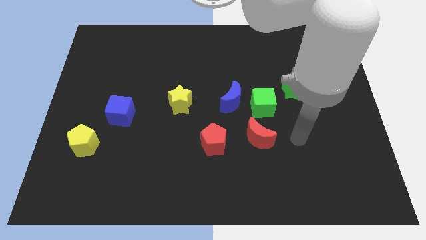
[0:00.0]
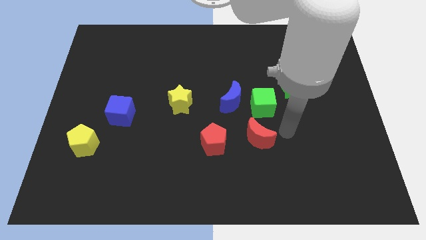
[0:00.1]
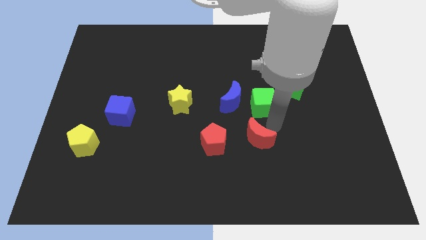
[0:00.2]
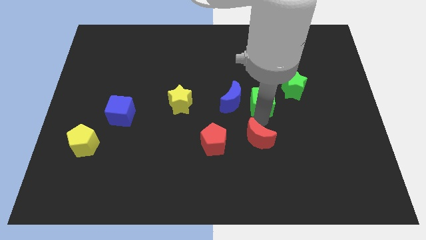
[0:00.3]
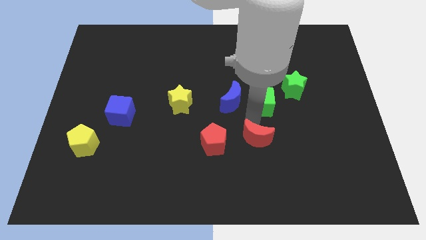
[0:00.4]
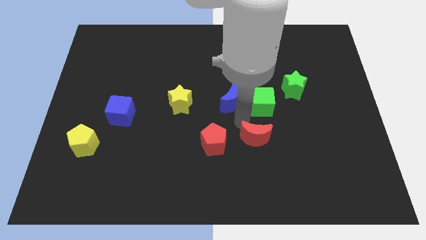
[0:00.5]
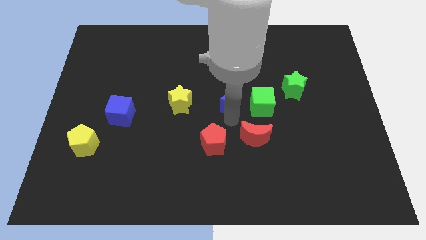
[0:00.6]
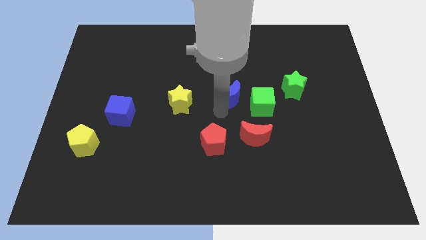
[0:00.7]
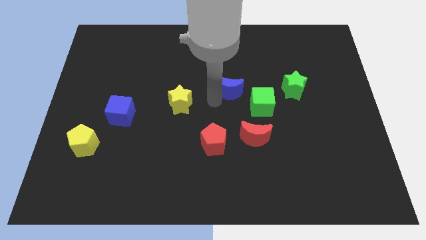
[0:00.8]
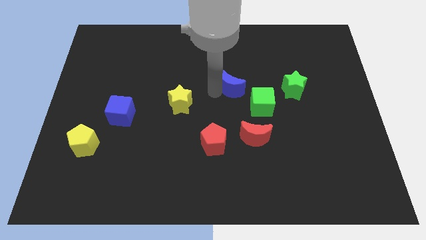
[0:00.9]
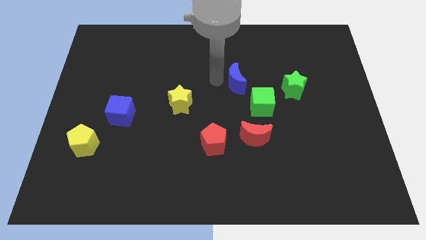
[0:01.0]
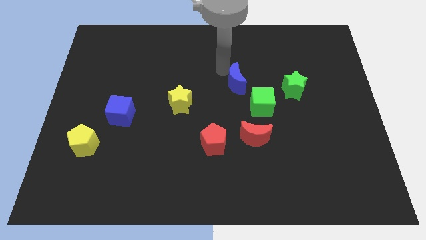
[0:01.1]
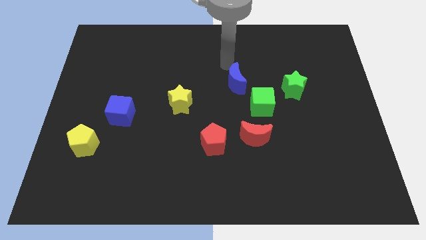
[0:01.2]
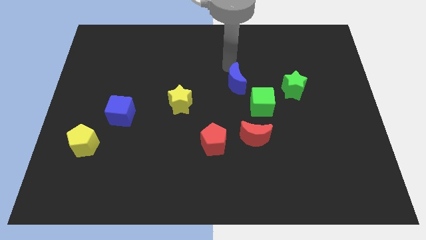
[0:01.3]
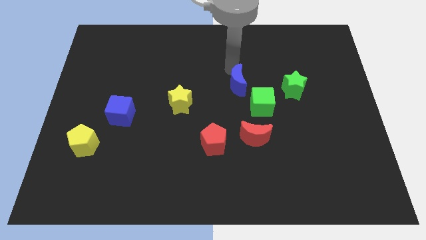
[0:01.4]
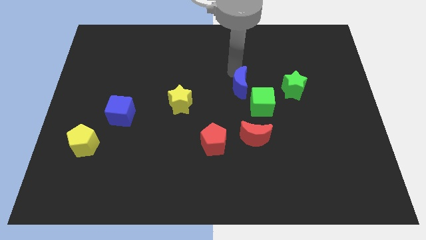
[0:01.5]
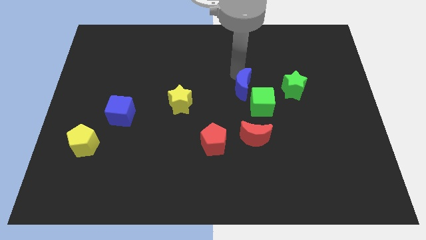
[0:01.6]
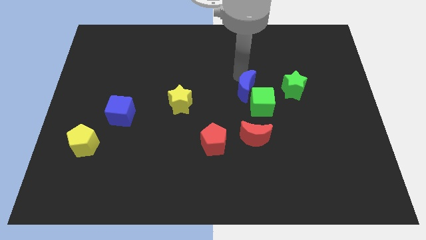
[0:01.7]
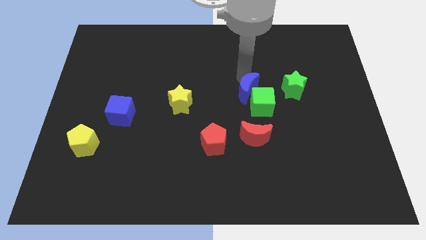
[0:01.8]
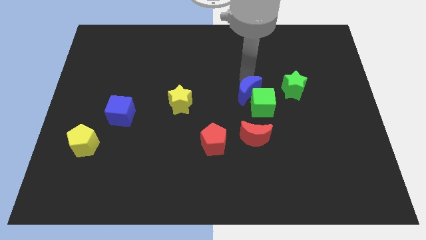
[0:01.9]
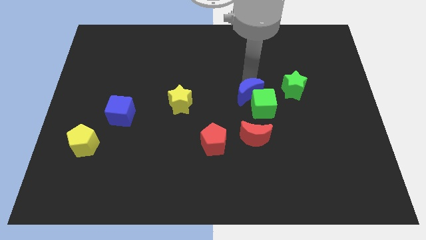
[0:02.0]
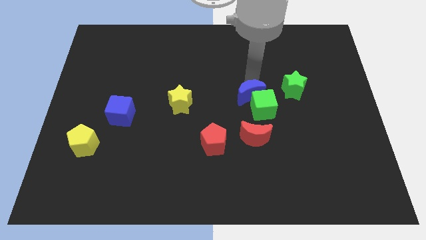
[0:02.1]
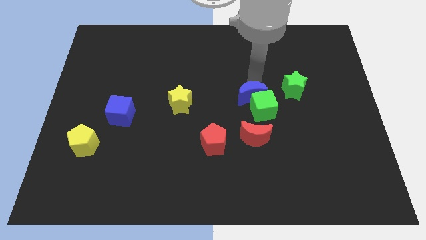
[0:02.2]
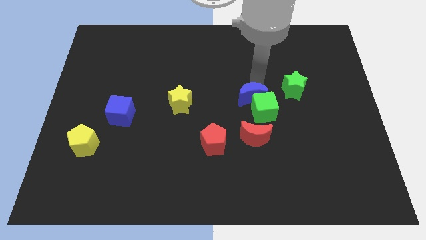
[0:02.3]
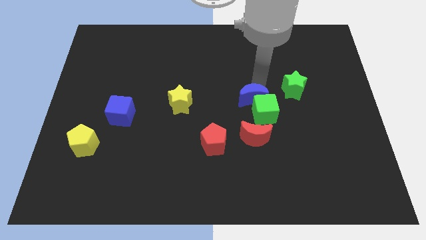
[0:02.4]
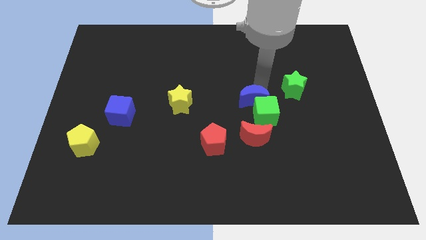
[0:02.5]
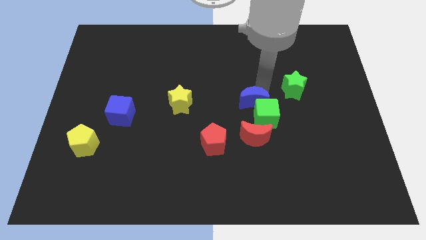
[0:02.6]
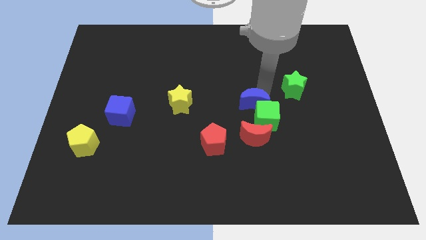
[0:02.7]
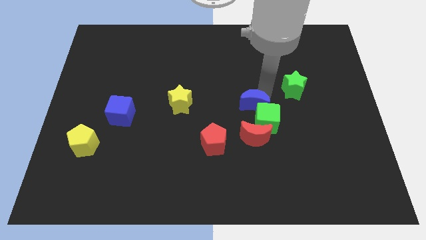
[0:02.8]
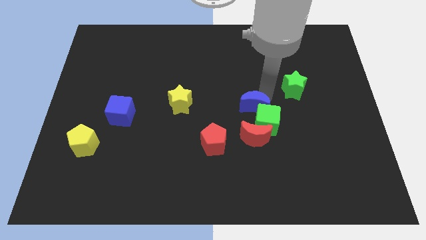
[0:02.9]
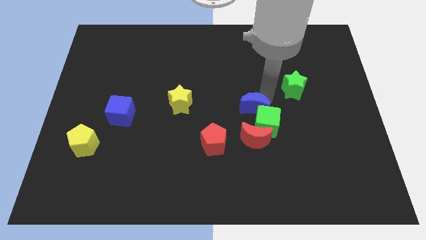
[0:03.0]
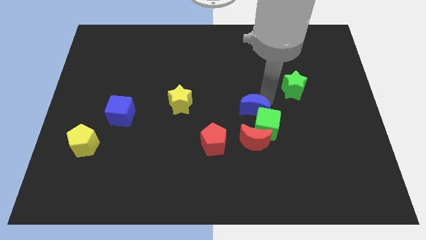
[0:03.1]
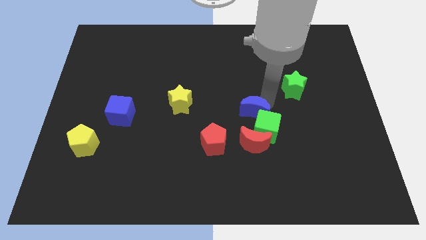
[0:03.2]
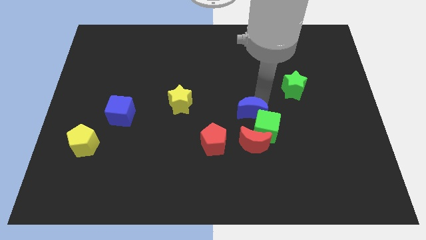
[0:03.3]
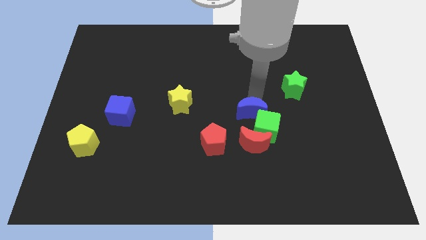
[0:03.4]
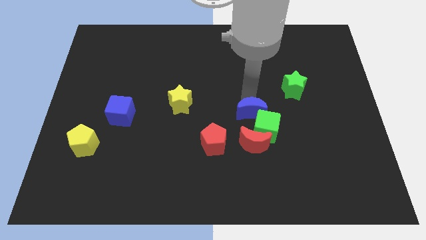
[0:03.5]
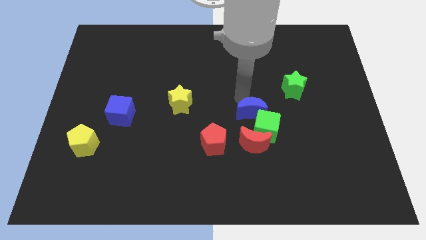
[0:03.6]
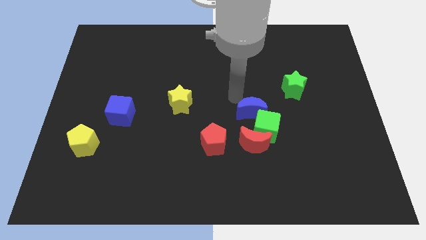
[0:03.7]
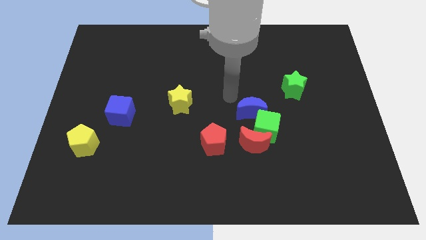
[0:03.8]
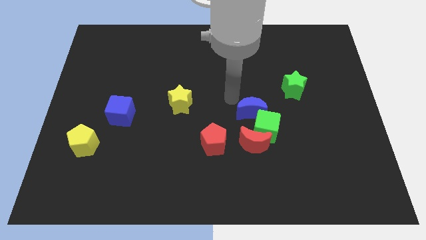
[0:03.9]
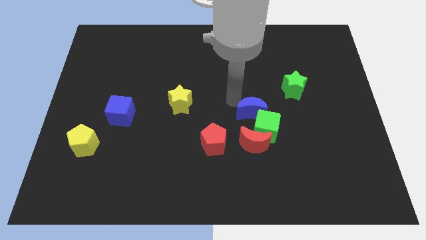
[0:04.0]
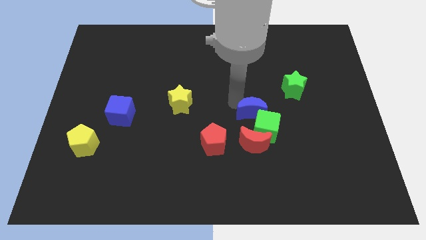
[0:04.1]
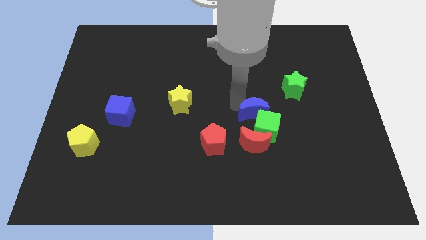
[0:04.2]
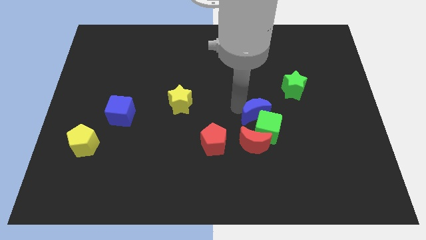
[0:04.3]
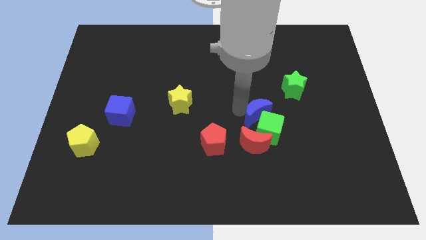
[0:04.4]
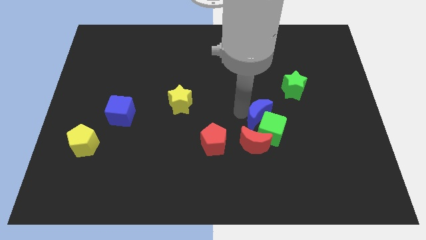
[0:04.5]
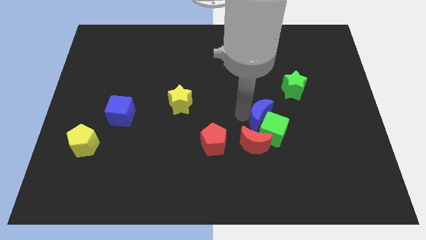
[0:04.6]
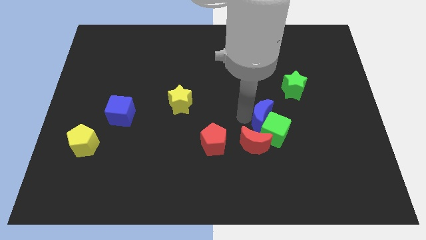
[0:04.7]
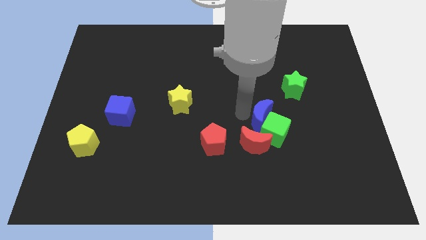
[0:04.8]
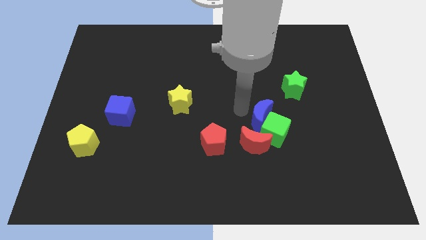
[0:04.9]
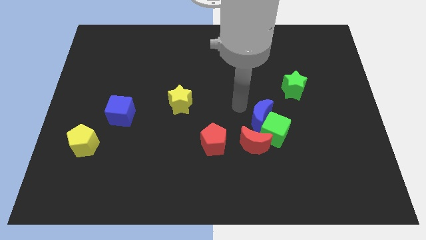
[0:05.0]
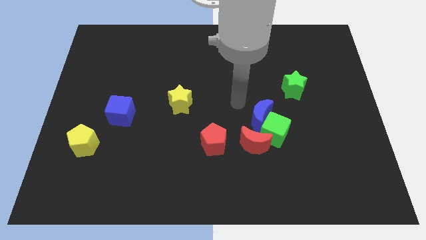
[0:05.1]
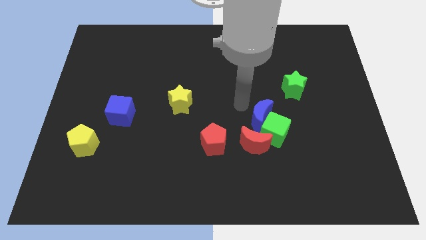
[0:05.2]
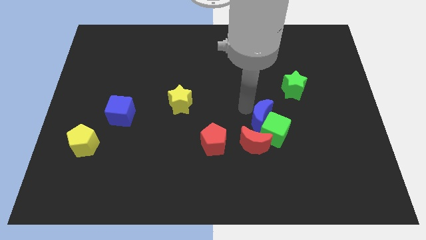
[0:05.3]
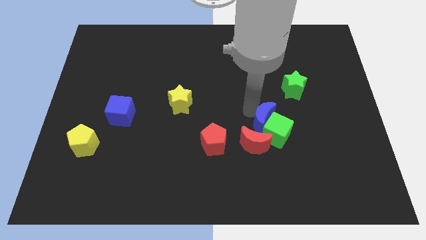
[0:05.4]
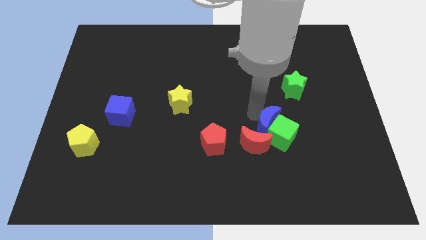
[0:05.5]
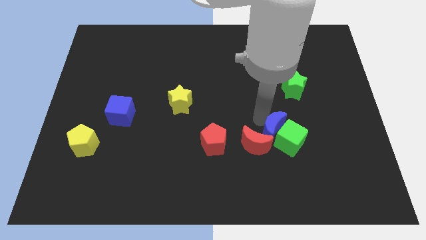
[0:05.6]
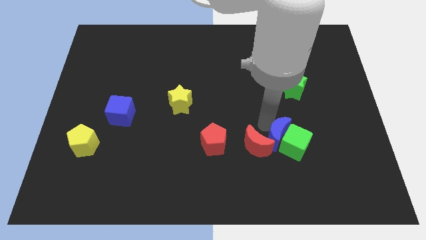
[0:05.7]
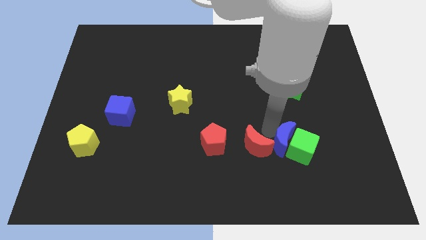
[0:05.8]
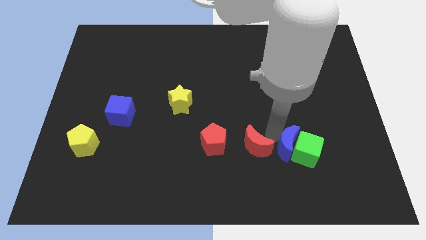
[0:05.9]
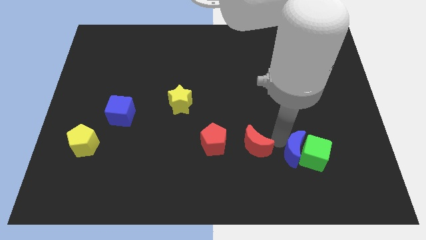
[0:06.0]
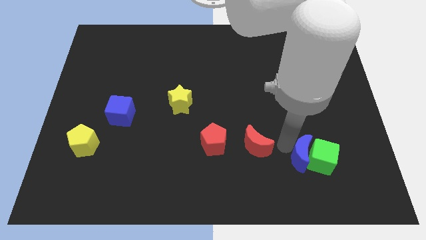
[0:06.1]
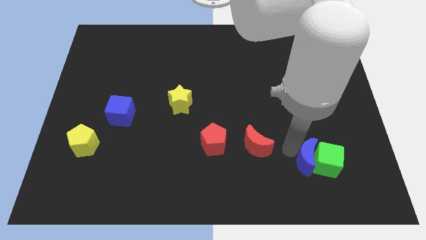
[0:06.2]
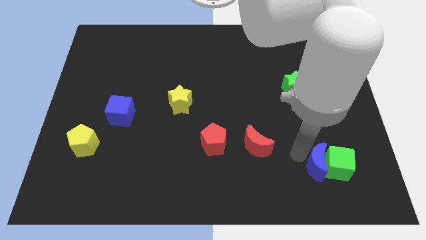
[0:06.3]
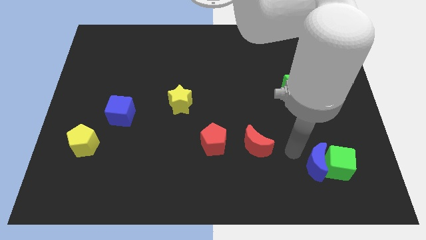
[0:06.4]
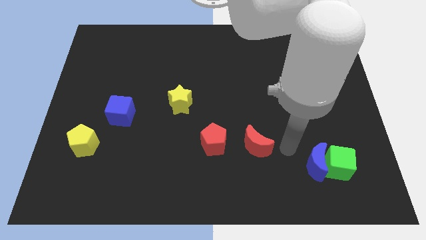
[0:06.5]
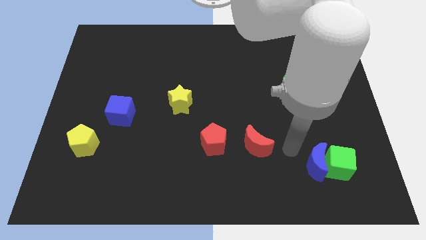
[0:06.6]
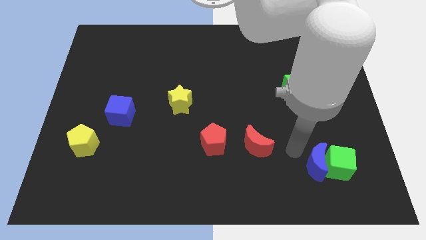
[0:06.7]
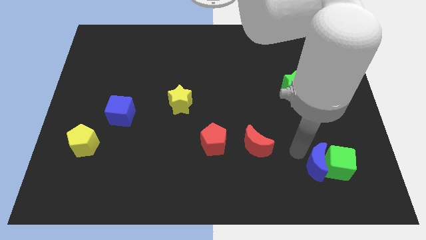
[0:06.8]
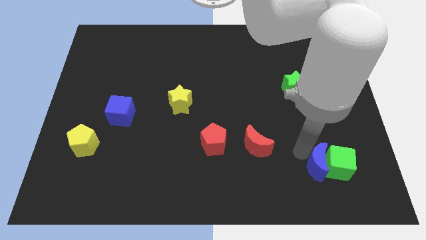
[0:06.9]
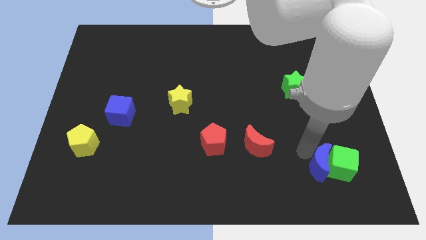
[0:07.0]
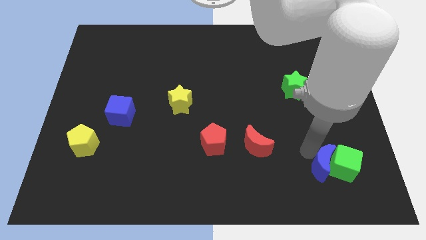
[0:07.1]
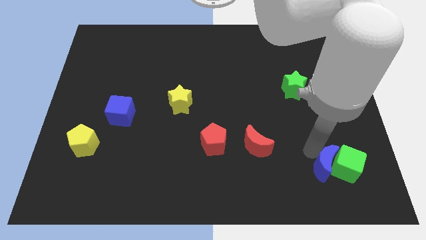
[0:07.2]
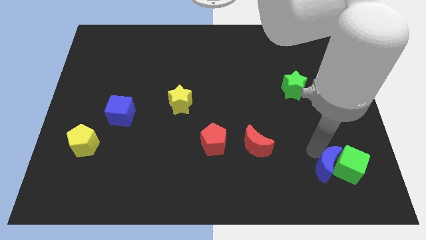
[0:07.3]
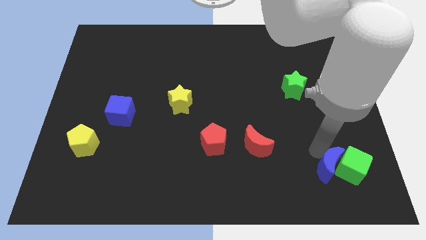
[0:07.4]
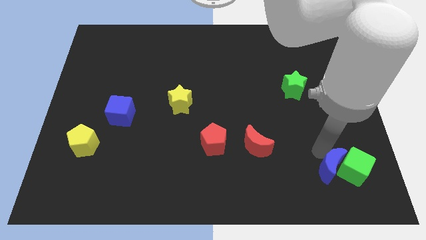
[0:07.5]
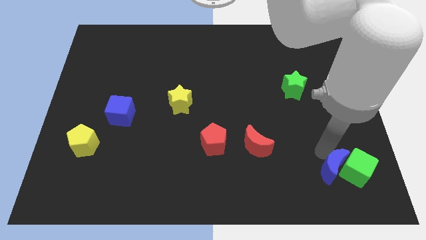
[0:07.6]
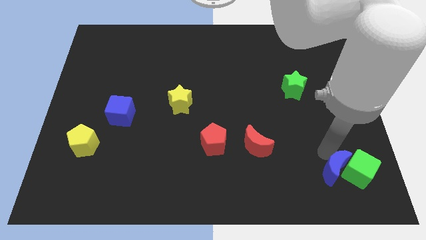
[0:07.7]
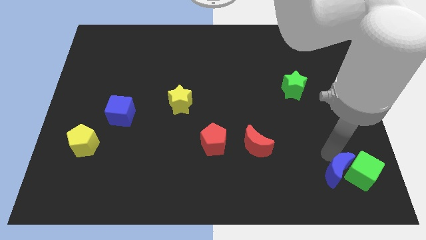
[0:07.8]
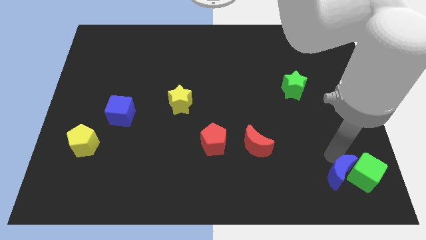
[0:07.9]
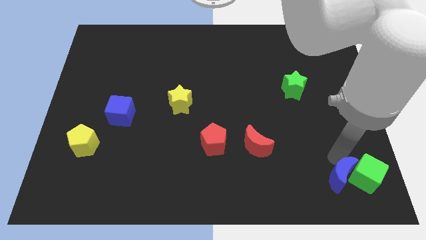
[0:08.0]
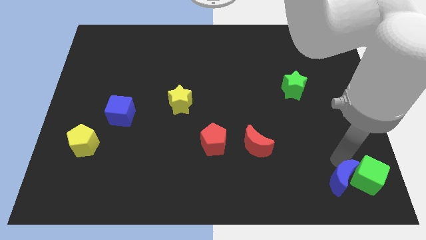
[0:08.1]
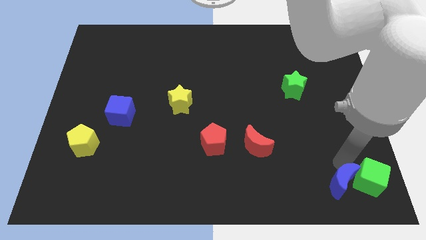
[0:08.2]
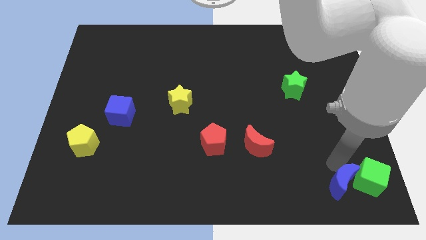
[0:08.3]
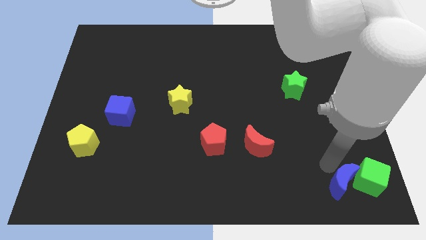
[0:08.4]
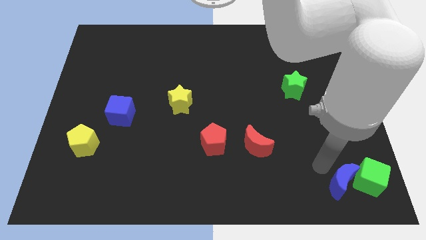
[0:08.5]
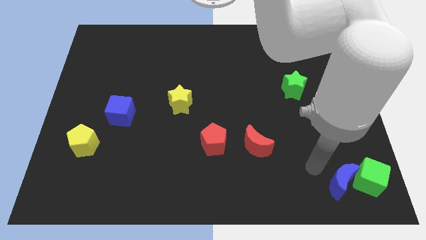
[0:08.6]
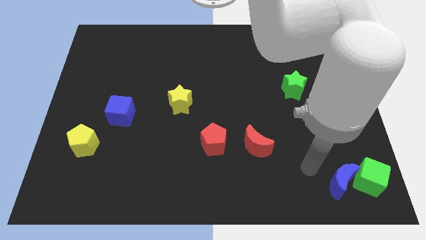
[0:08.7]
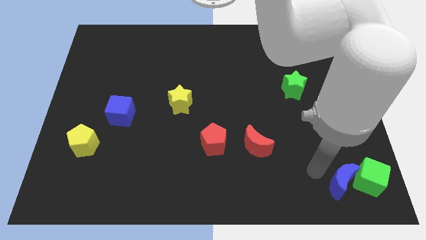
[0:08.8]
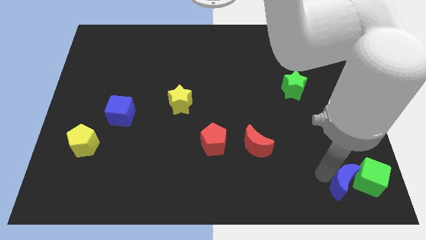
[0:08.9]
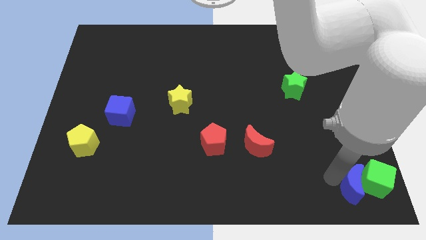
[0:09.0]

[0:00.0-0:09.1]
push the blue moon to the bottom right corner
